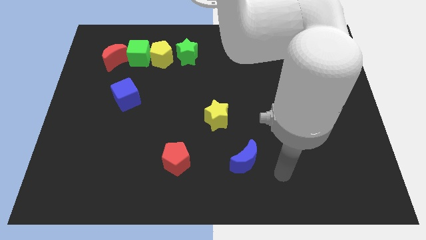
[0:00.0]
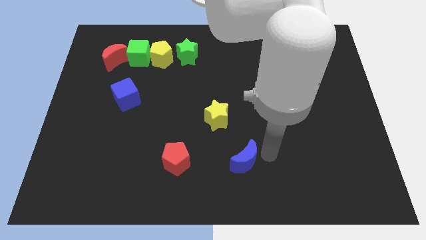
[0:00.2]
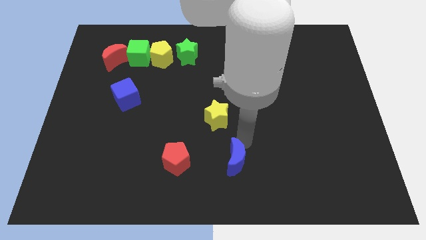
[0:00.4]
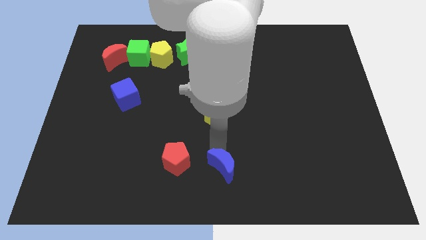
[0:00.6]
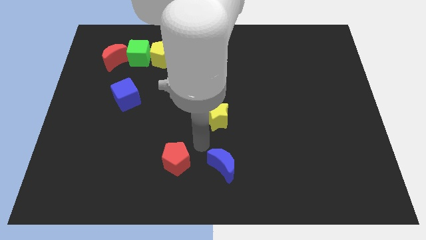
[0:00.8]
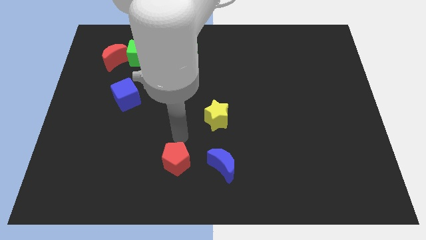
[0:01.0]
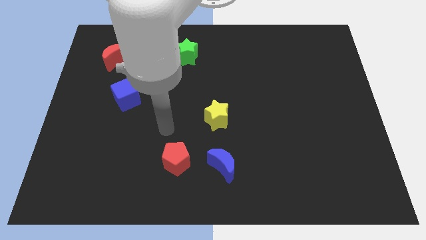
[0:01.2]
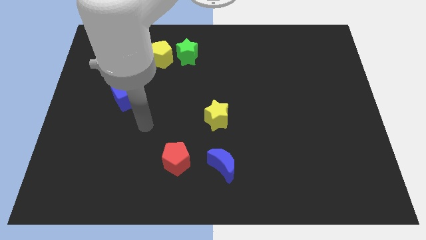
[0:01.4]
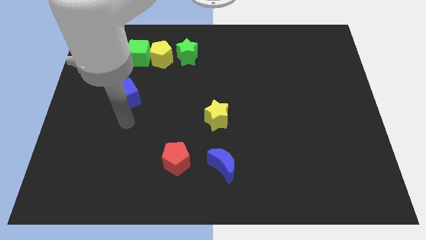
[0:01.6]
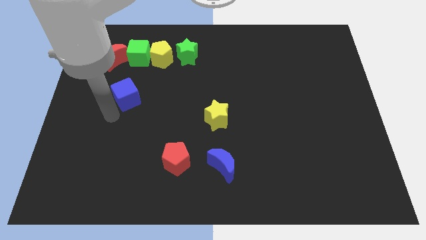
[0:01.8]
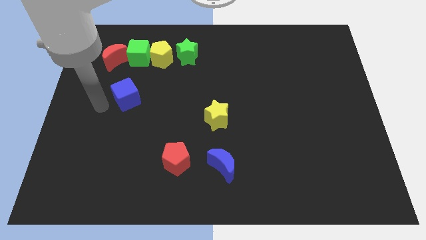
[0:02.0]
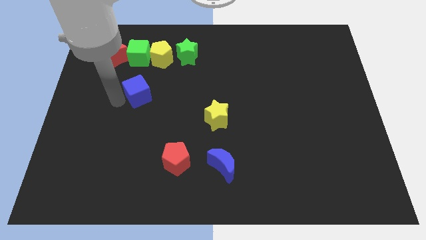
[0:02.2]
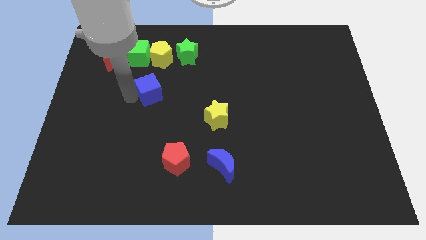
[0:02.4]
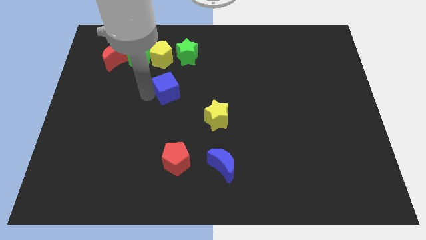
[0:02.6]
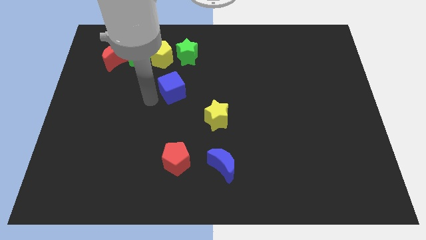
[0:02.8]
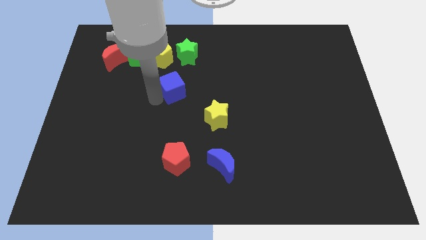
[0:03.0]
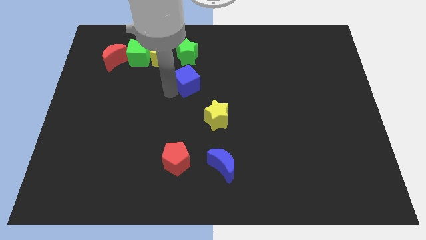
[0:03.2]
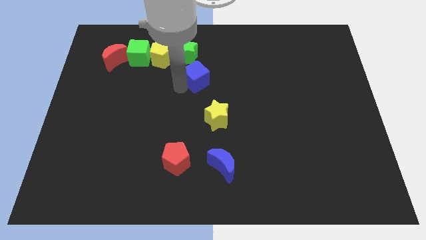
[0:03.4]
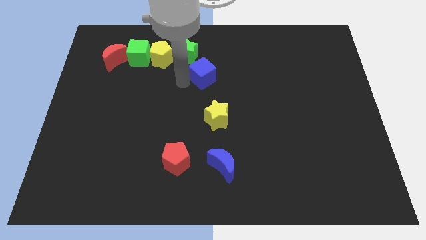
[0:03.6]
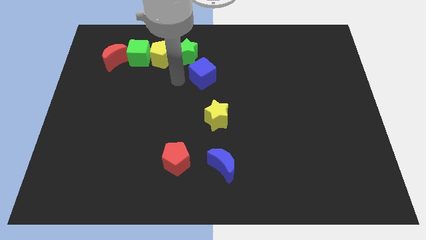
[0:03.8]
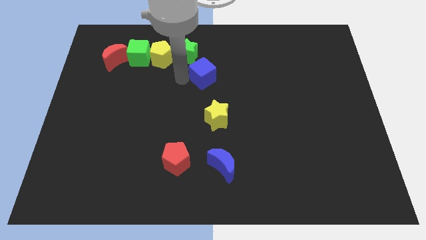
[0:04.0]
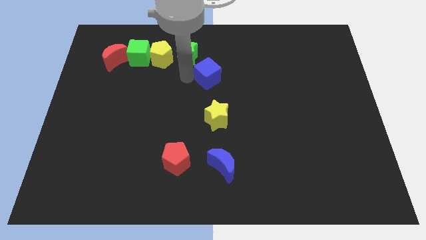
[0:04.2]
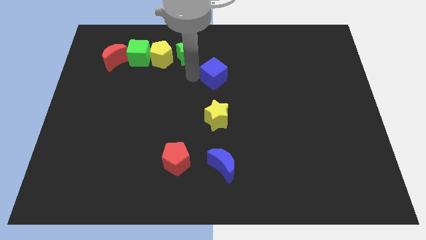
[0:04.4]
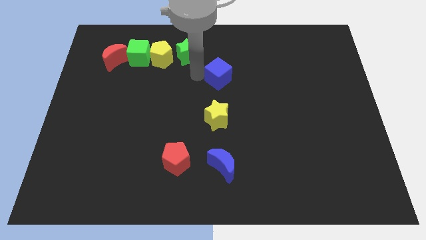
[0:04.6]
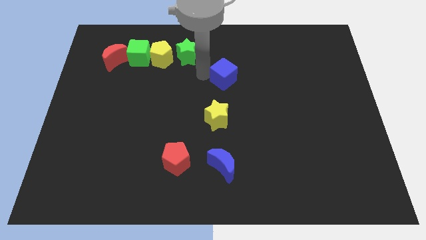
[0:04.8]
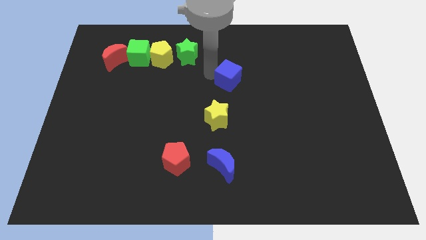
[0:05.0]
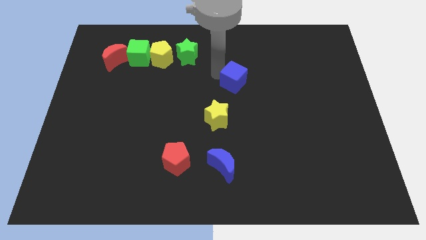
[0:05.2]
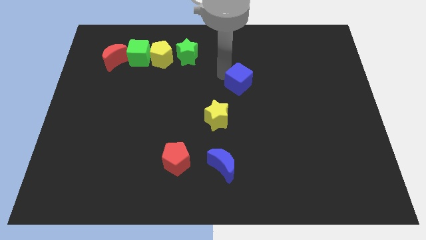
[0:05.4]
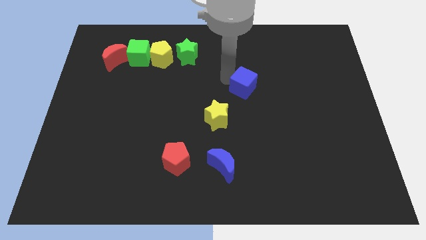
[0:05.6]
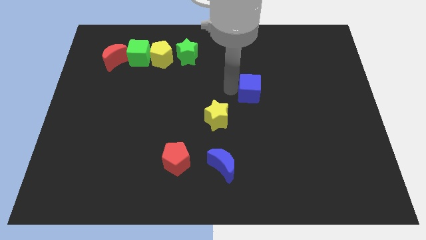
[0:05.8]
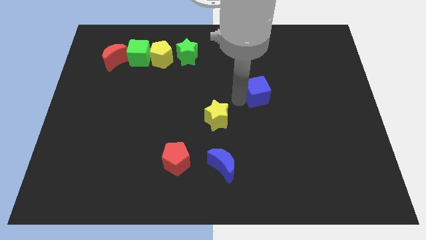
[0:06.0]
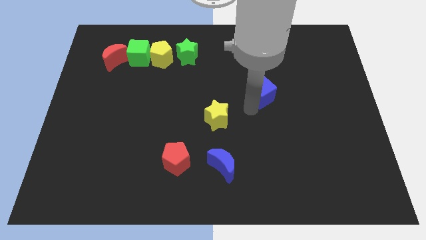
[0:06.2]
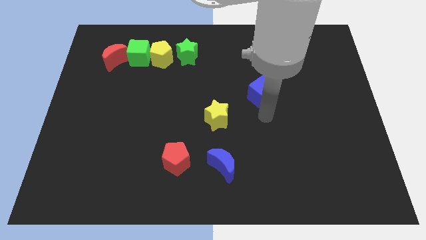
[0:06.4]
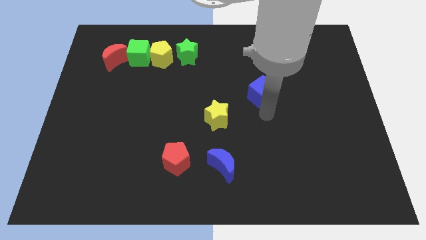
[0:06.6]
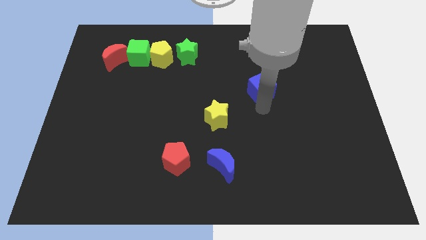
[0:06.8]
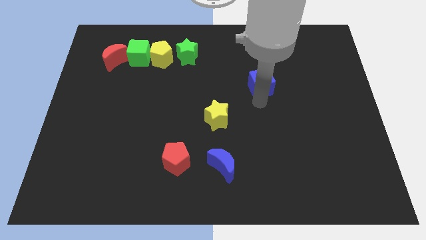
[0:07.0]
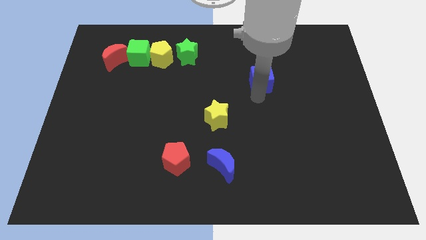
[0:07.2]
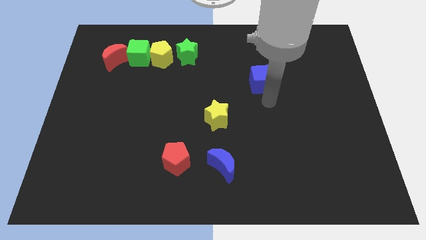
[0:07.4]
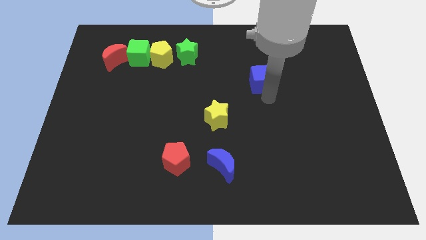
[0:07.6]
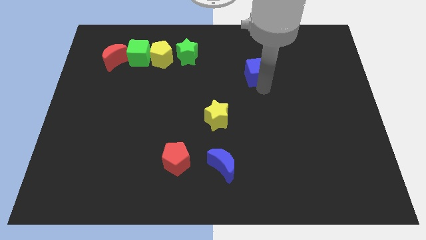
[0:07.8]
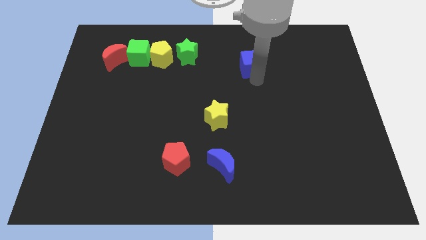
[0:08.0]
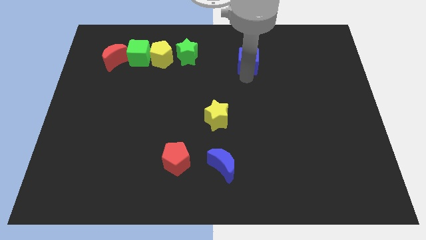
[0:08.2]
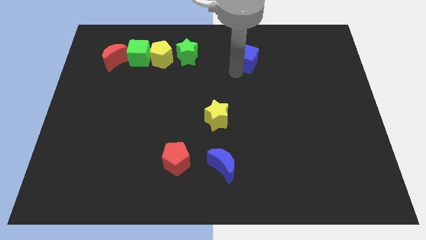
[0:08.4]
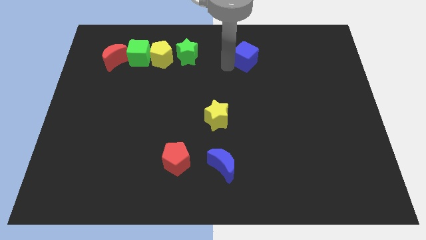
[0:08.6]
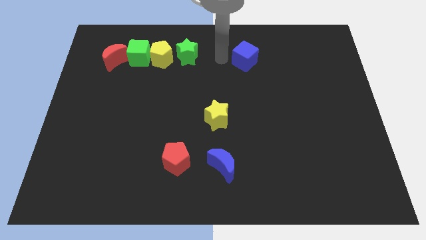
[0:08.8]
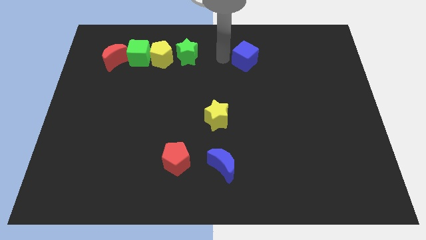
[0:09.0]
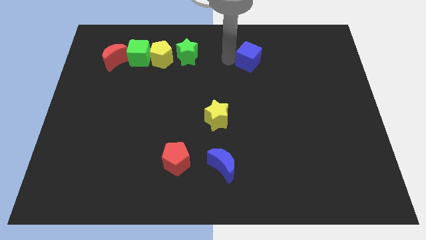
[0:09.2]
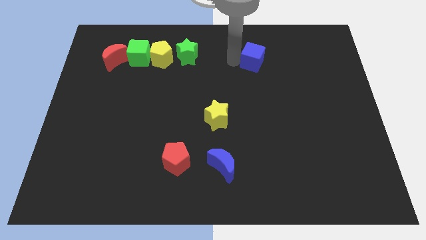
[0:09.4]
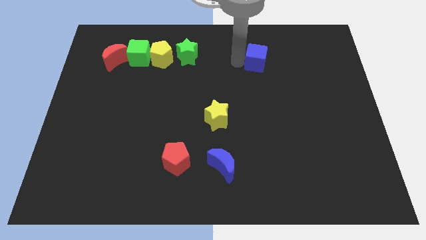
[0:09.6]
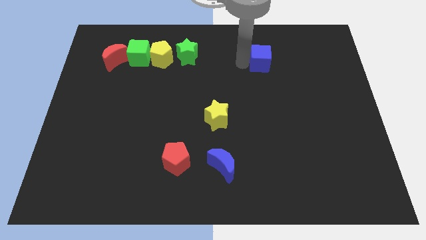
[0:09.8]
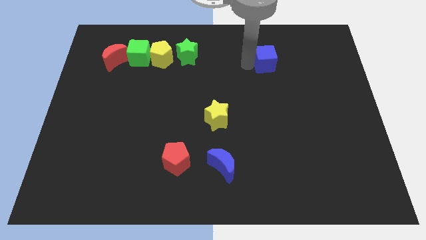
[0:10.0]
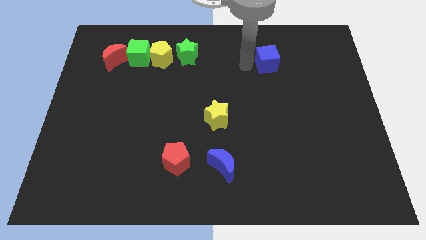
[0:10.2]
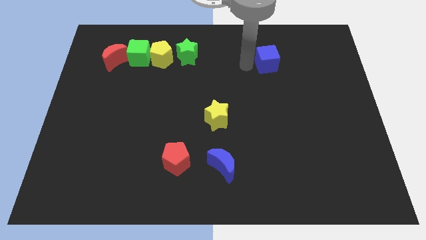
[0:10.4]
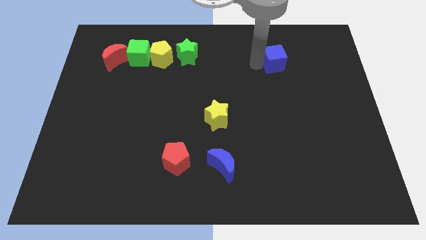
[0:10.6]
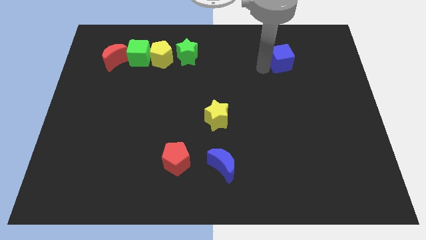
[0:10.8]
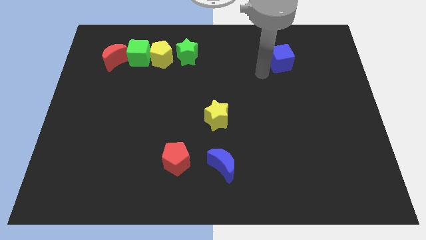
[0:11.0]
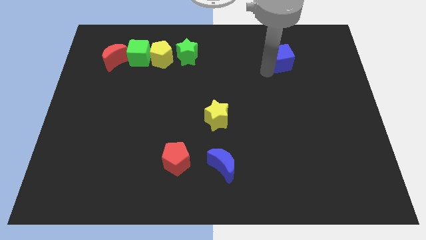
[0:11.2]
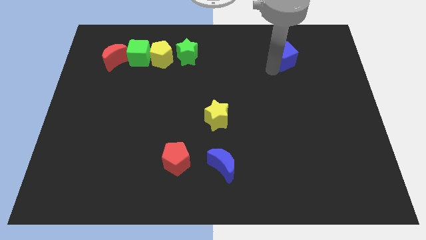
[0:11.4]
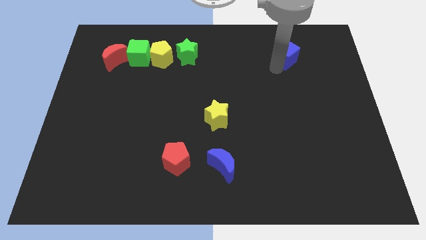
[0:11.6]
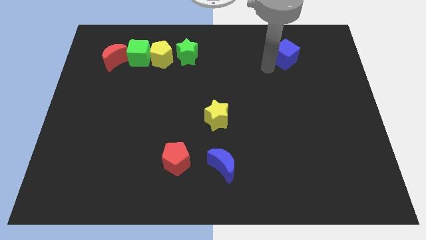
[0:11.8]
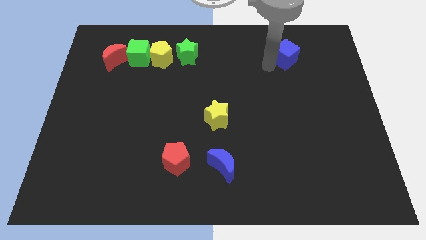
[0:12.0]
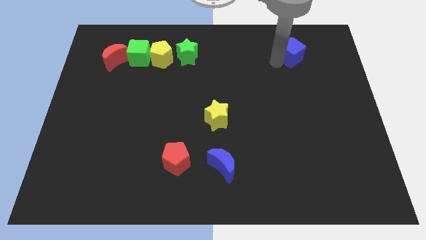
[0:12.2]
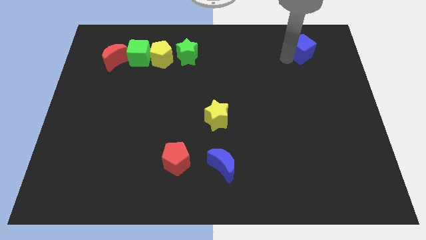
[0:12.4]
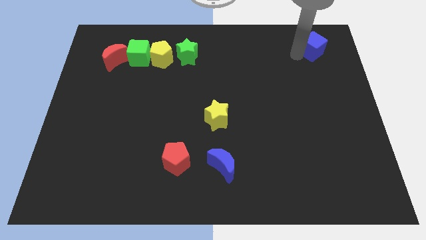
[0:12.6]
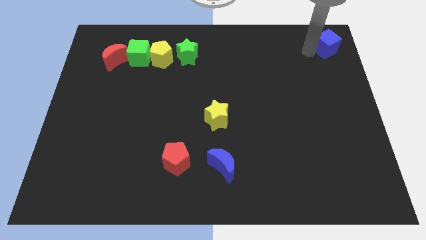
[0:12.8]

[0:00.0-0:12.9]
move the blue cube to the top right corner
